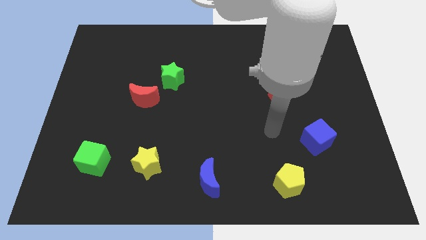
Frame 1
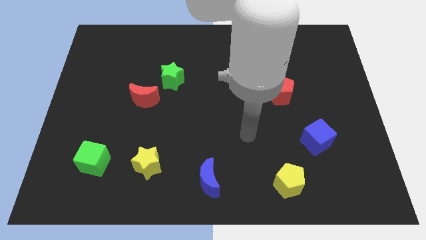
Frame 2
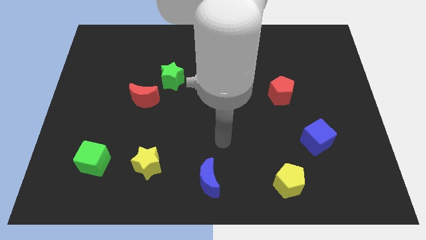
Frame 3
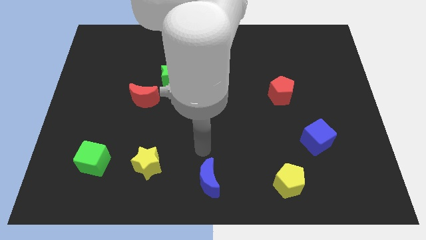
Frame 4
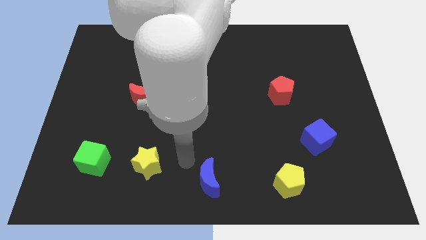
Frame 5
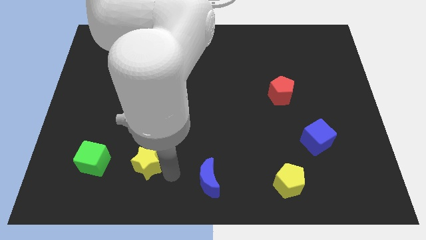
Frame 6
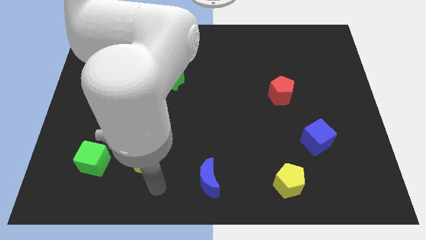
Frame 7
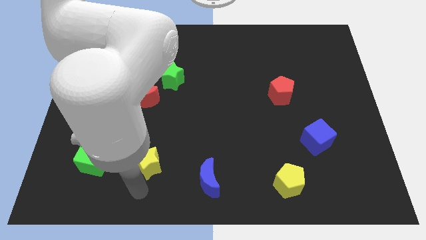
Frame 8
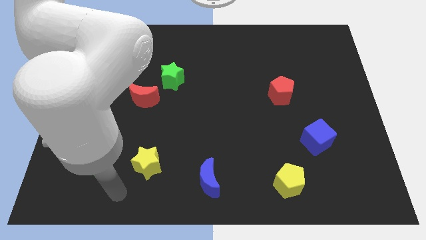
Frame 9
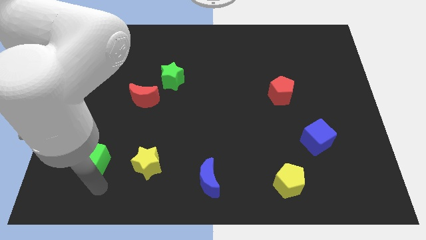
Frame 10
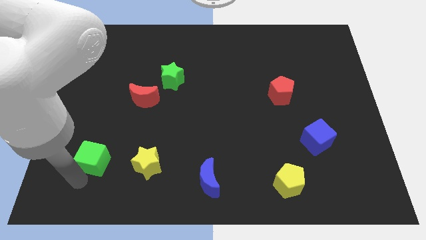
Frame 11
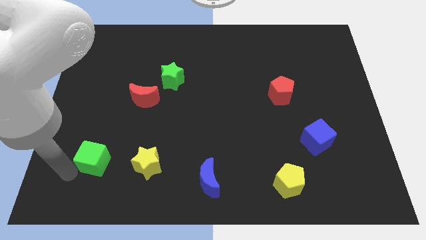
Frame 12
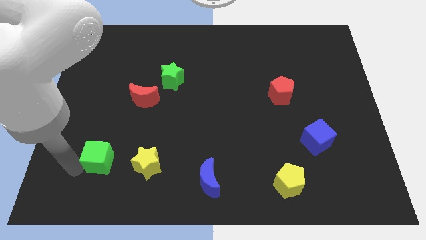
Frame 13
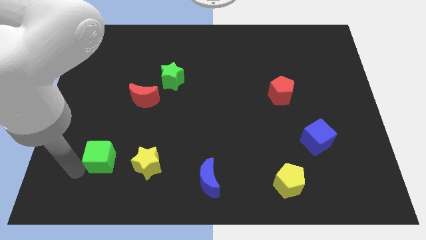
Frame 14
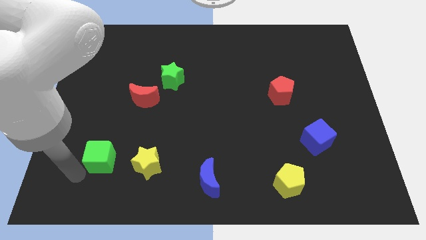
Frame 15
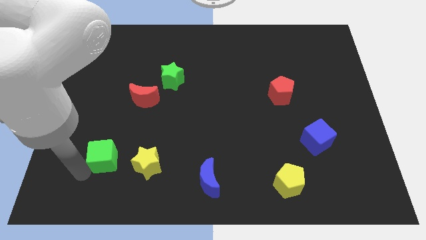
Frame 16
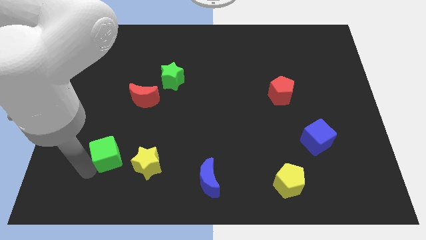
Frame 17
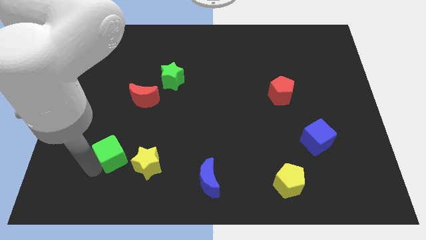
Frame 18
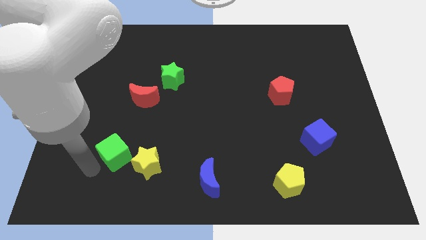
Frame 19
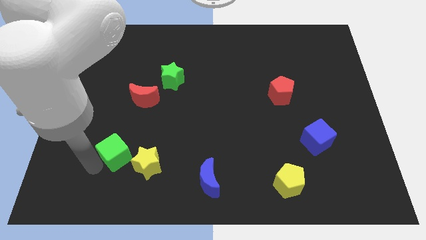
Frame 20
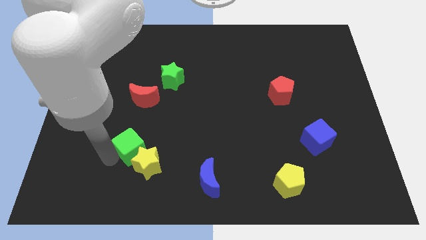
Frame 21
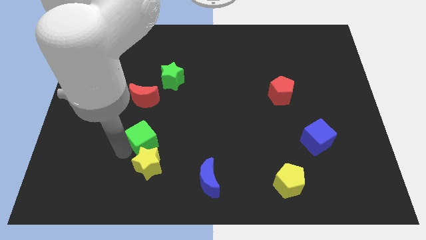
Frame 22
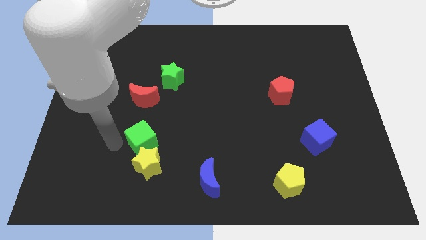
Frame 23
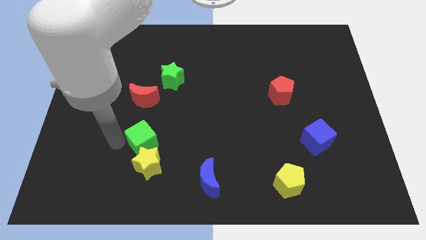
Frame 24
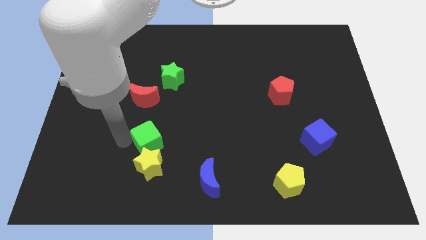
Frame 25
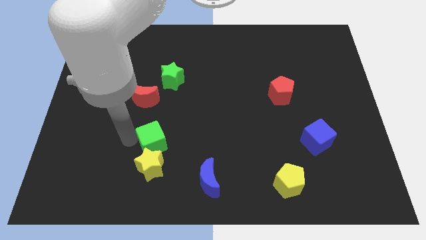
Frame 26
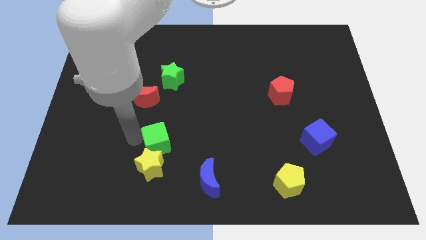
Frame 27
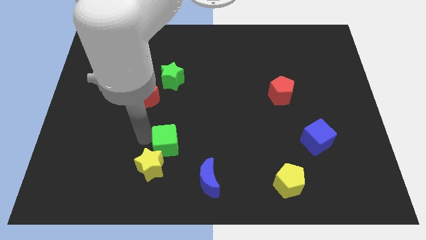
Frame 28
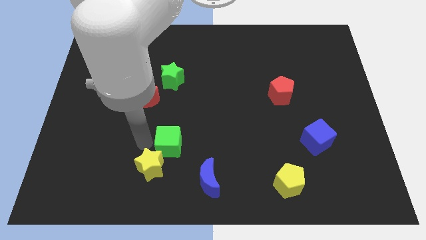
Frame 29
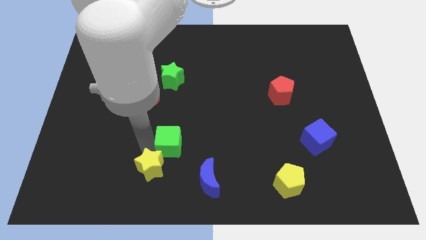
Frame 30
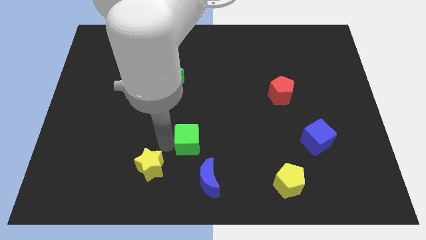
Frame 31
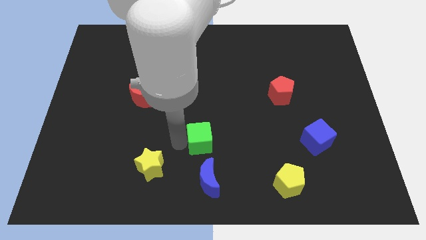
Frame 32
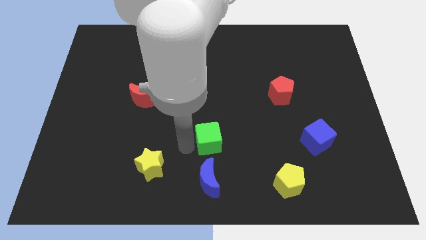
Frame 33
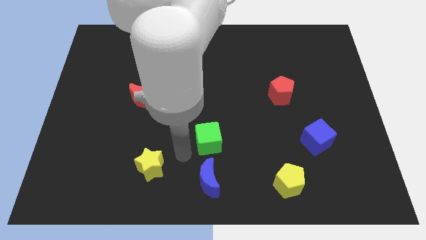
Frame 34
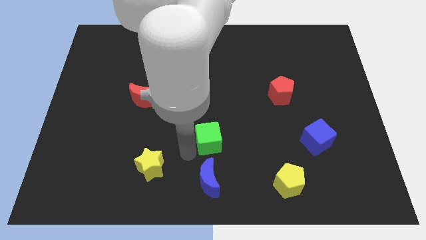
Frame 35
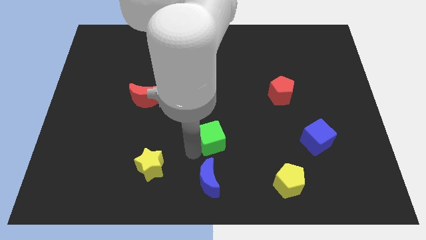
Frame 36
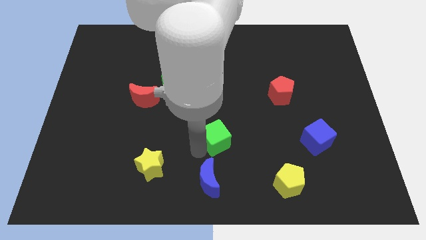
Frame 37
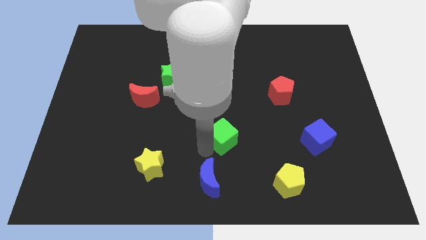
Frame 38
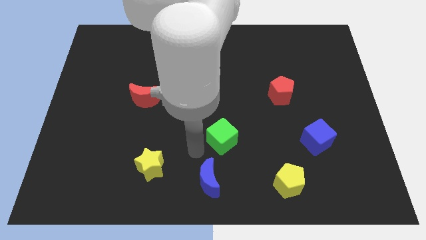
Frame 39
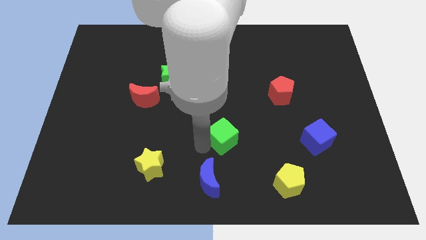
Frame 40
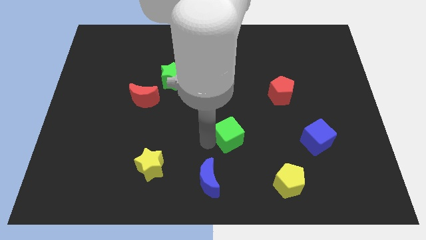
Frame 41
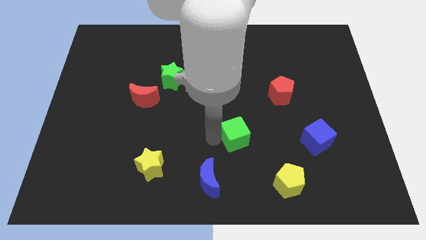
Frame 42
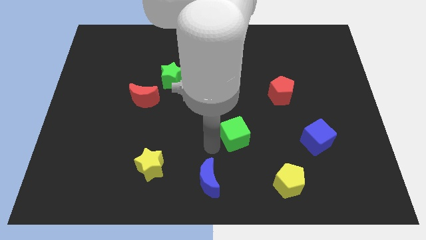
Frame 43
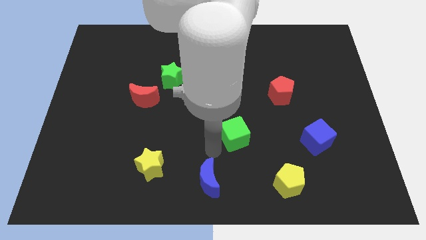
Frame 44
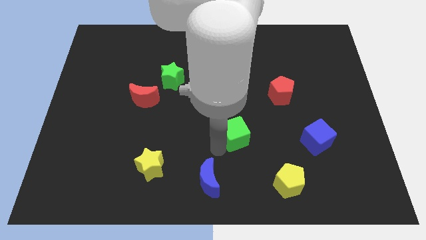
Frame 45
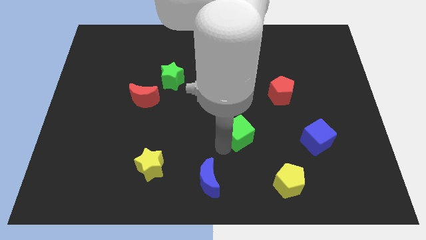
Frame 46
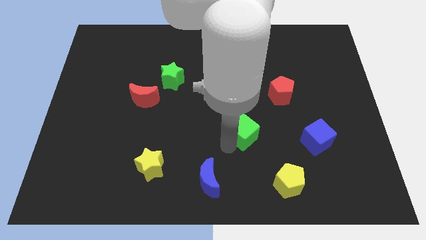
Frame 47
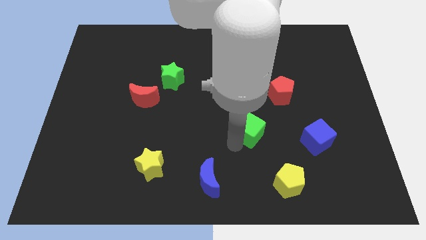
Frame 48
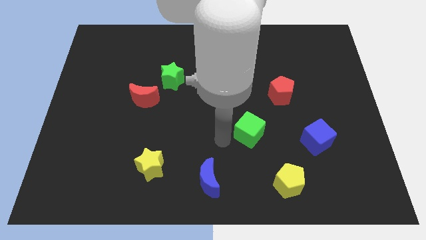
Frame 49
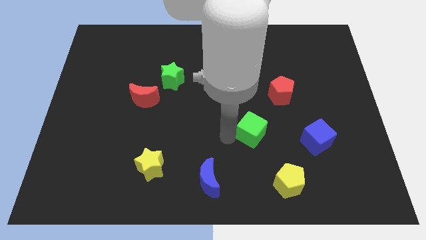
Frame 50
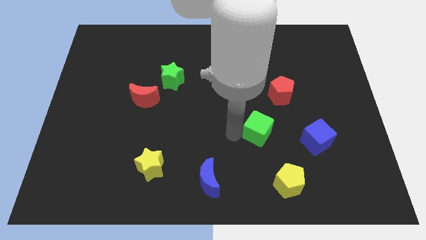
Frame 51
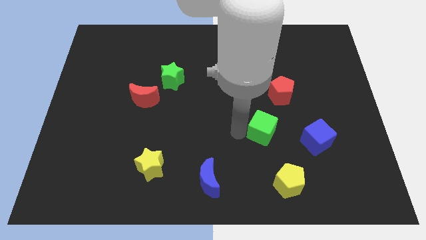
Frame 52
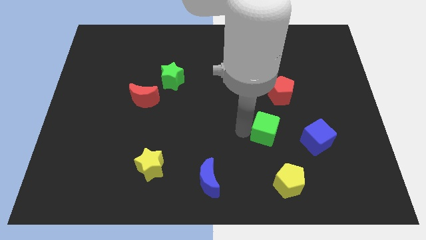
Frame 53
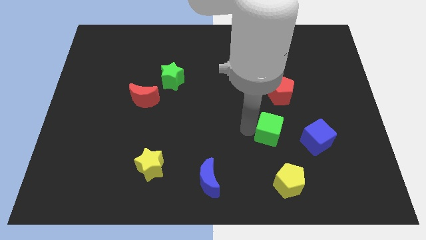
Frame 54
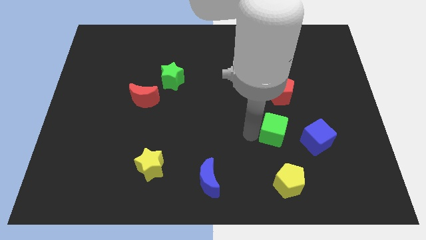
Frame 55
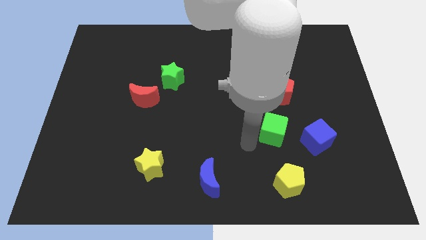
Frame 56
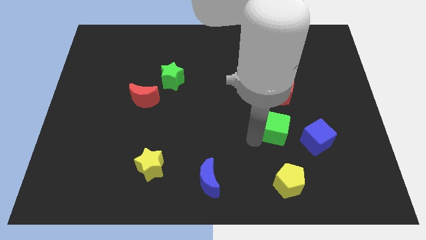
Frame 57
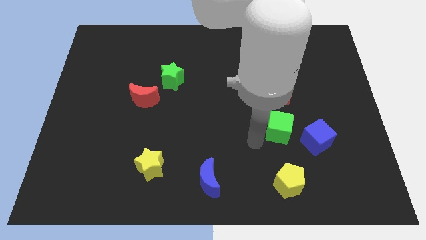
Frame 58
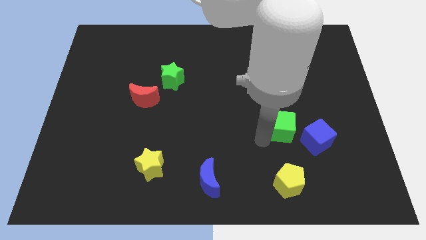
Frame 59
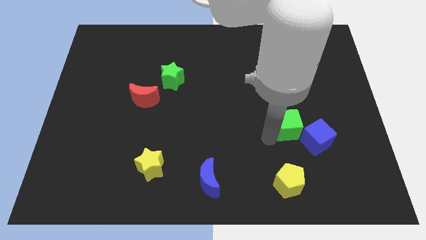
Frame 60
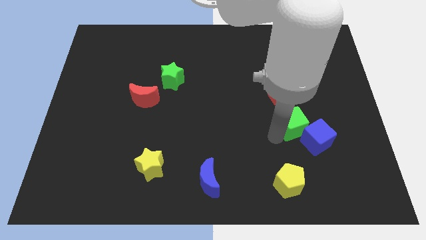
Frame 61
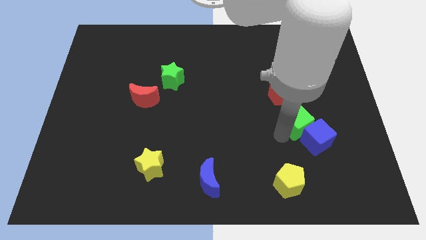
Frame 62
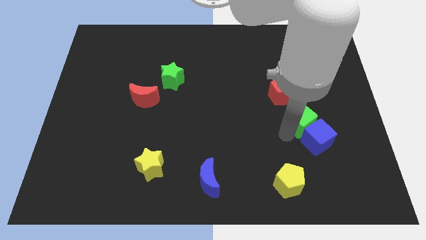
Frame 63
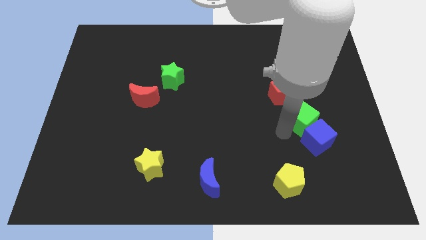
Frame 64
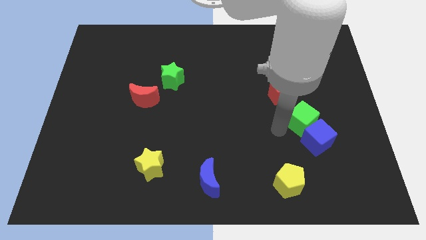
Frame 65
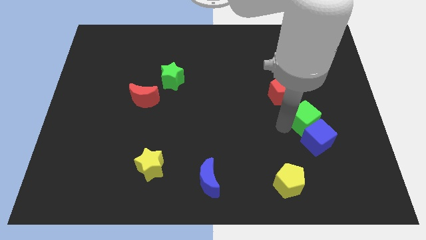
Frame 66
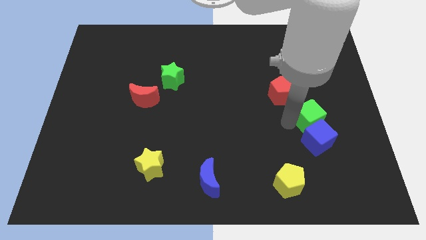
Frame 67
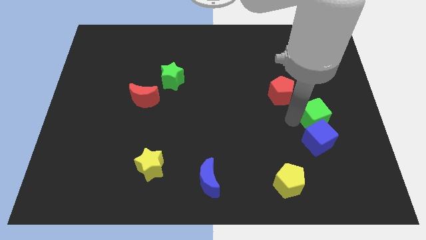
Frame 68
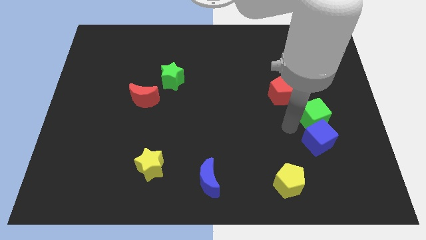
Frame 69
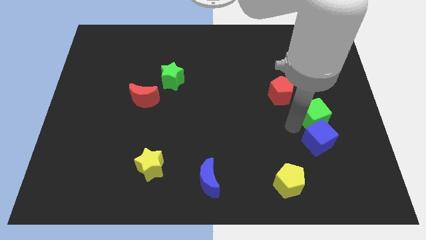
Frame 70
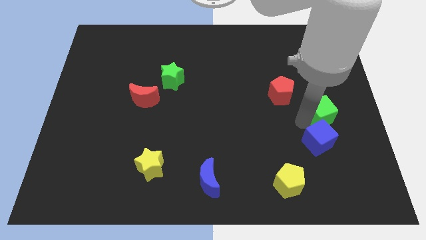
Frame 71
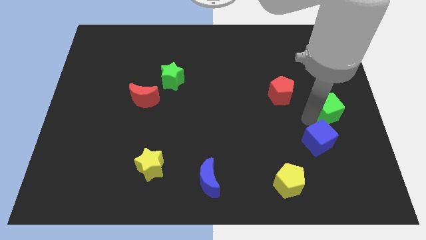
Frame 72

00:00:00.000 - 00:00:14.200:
push the green cube to the right side of the board
